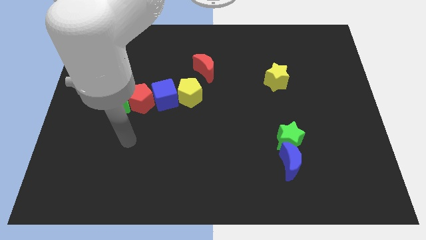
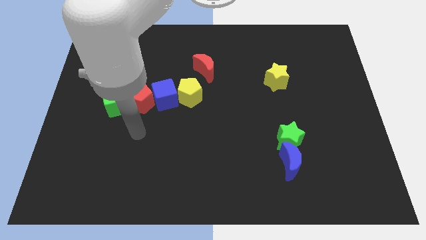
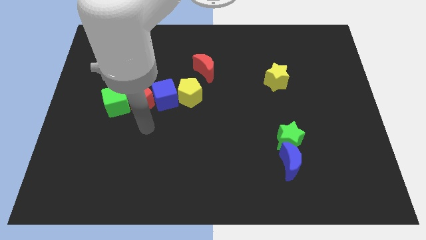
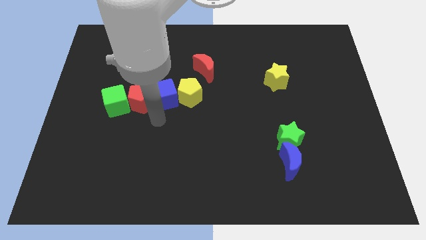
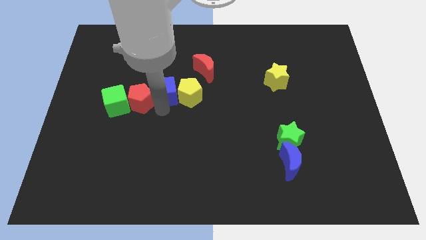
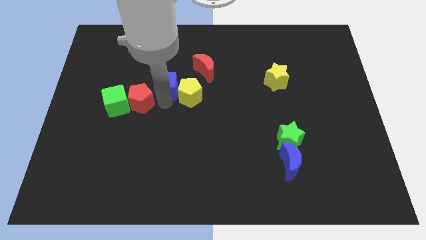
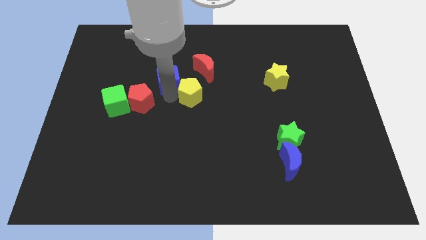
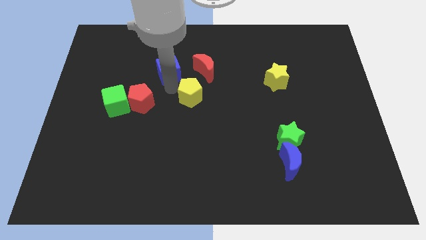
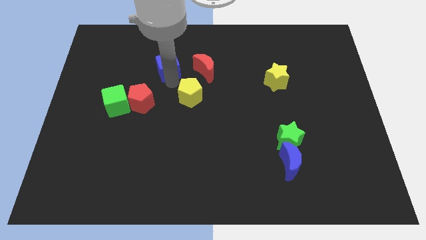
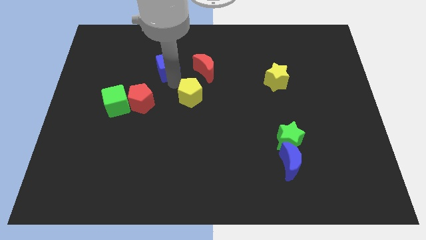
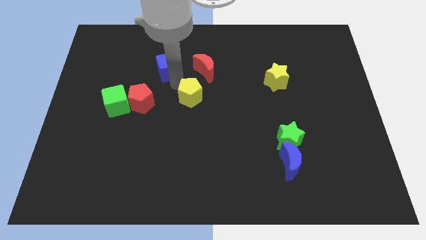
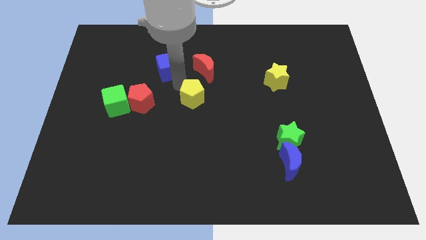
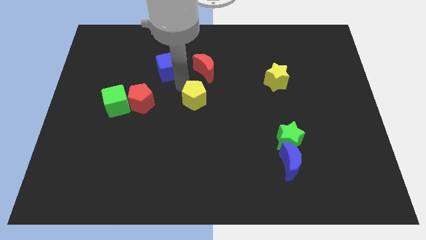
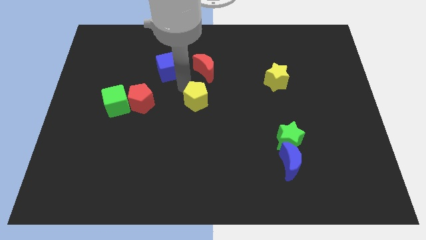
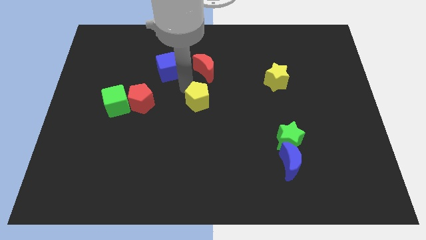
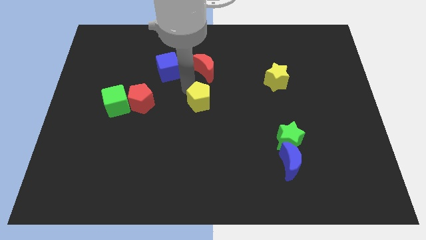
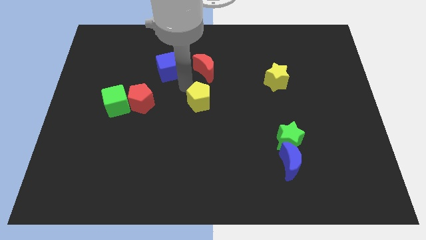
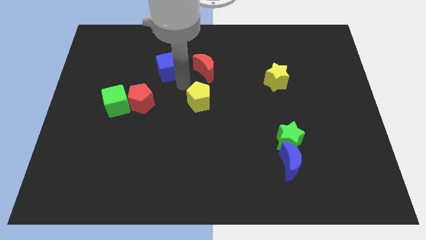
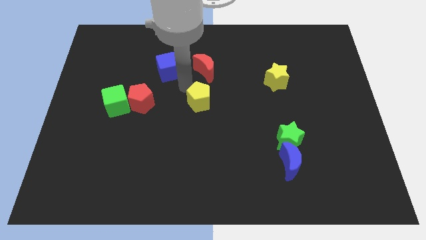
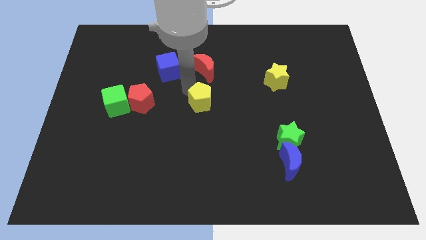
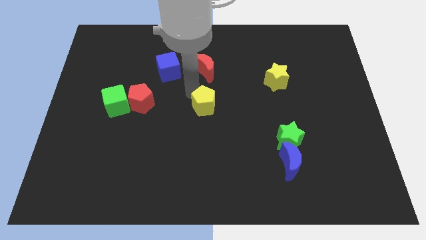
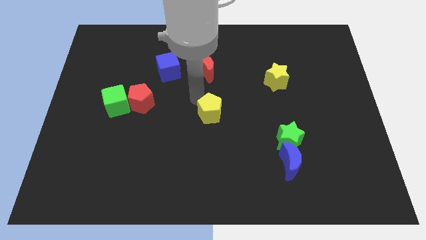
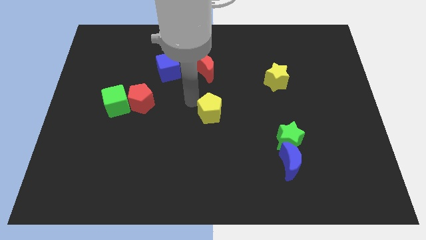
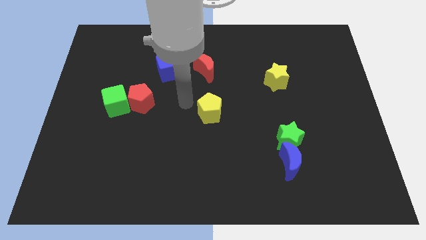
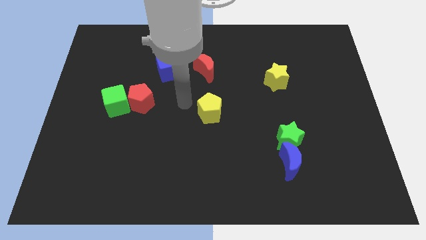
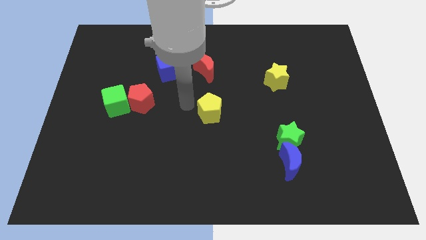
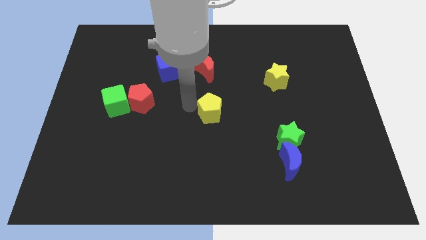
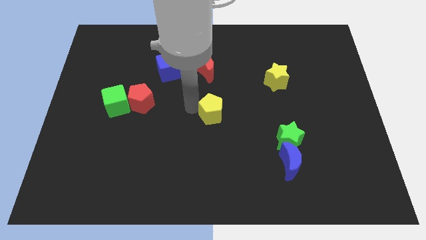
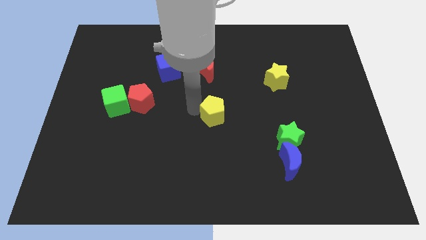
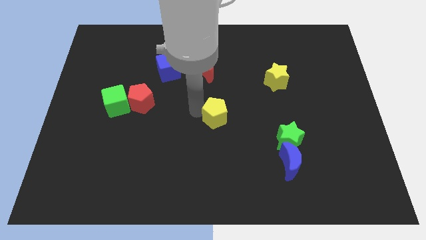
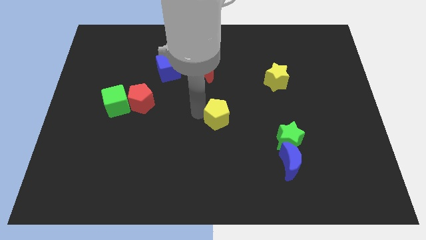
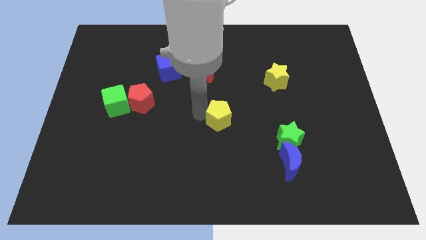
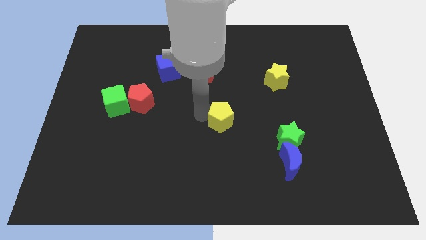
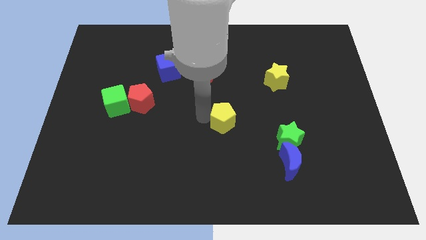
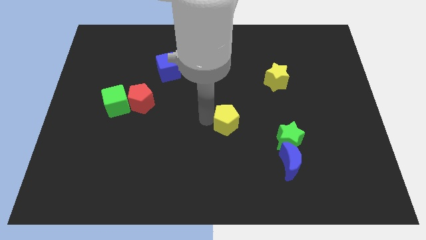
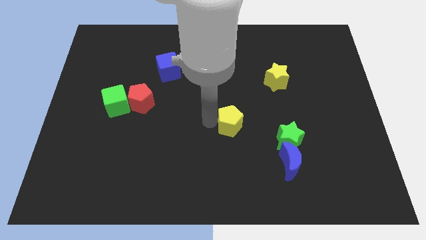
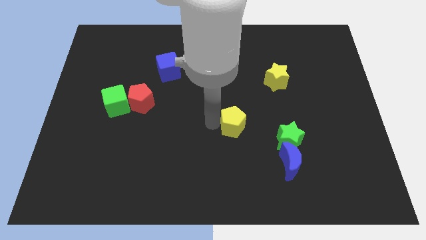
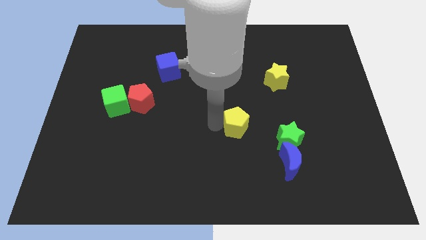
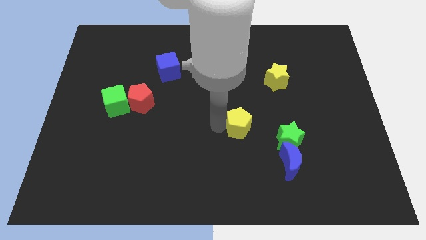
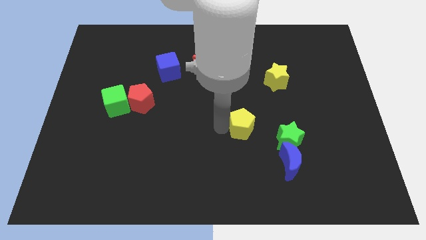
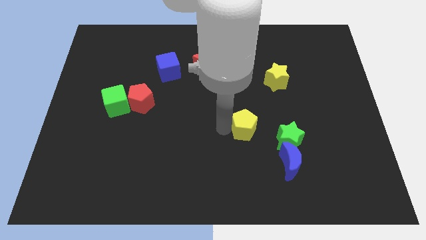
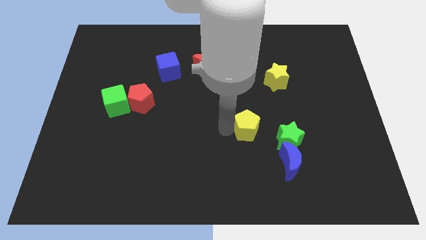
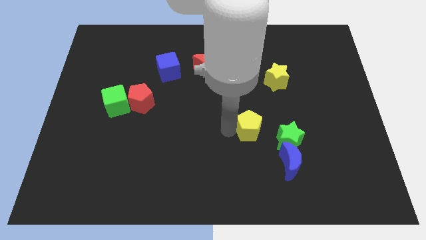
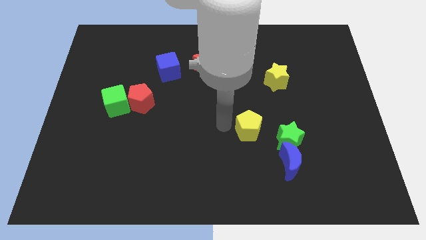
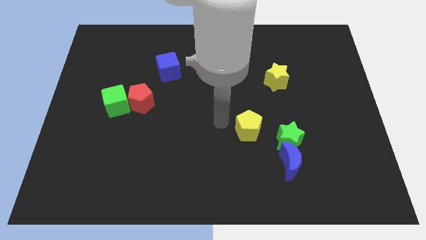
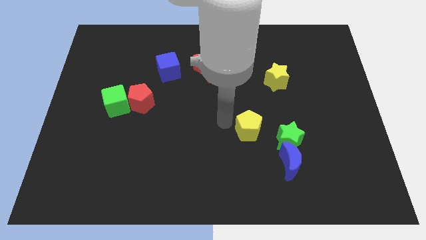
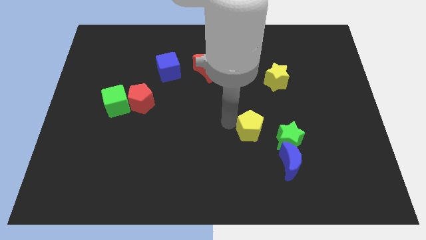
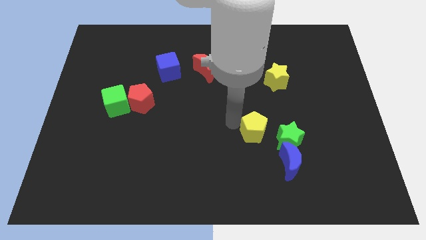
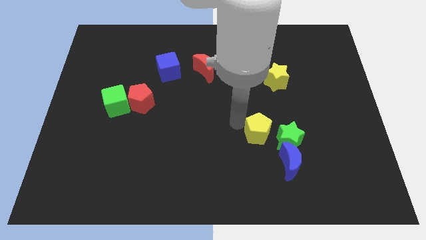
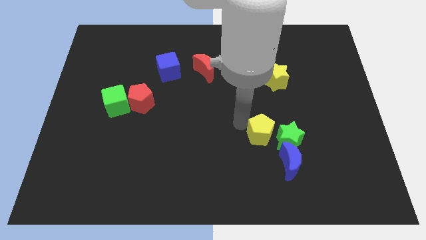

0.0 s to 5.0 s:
move the yellow pentagon to the green star

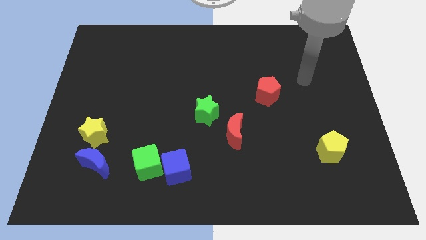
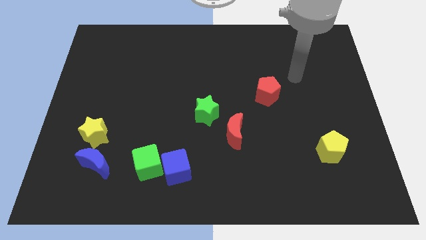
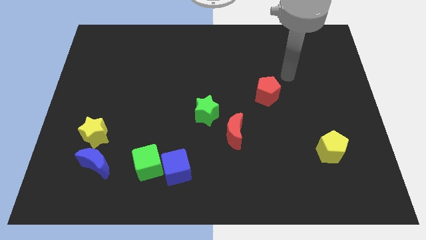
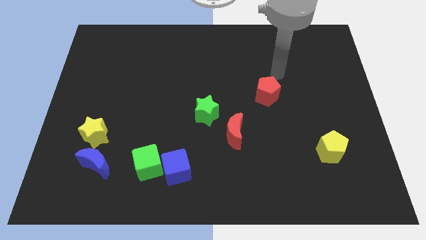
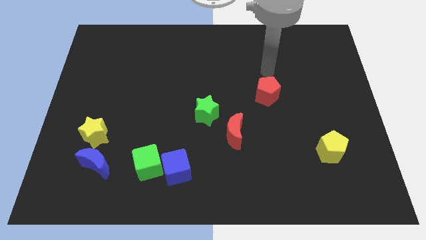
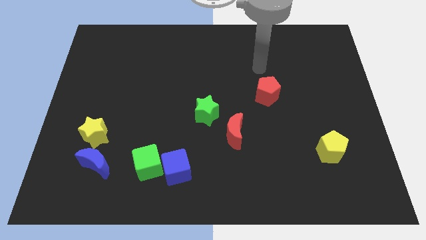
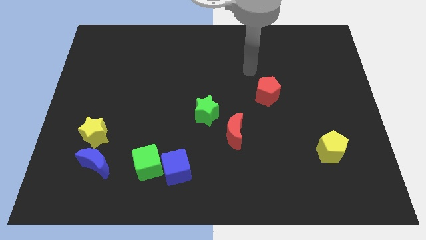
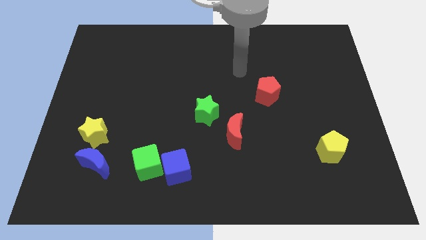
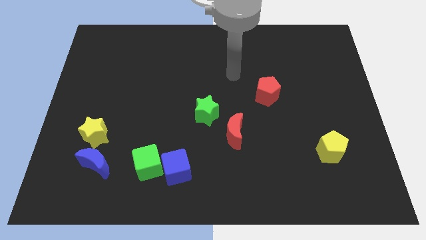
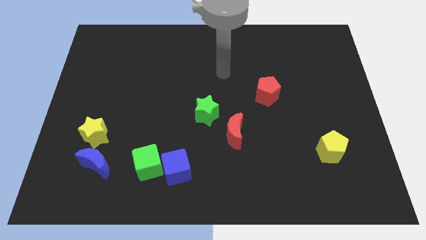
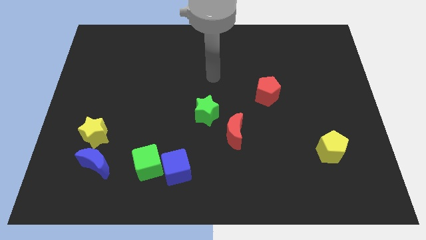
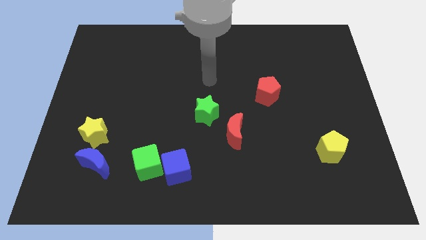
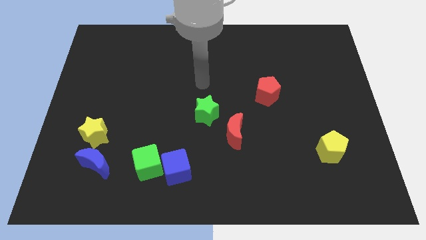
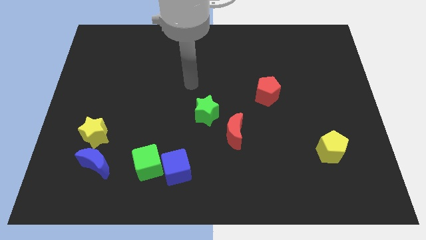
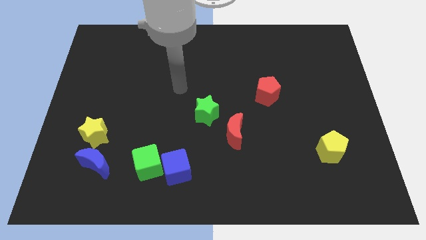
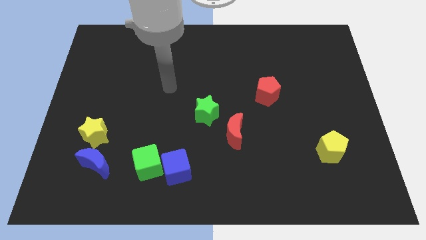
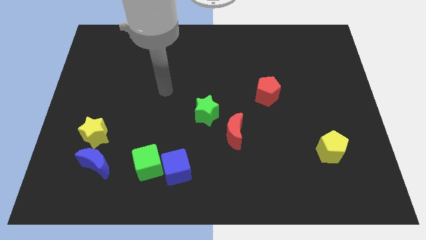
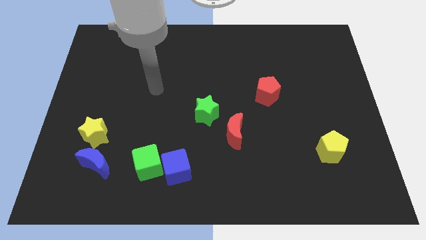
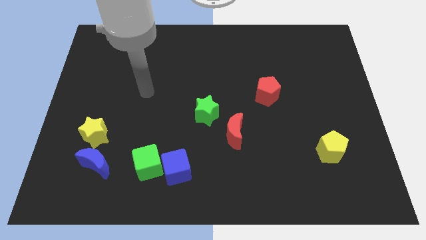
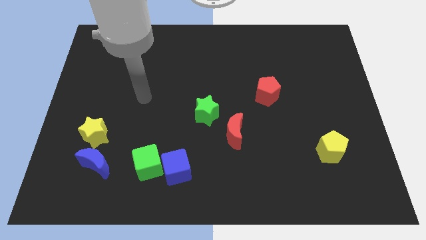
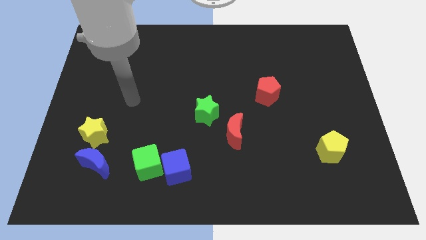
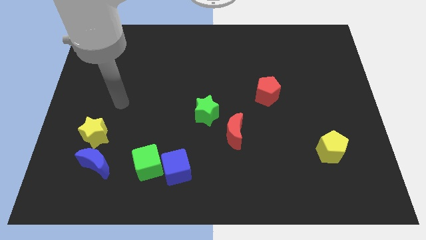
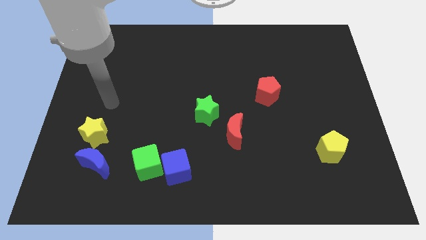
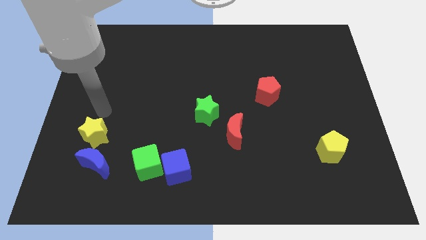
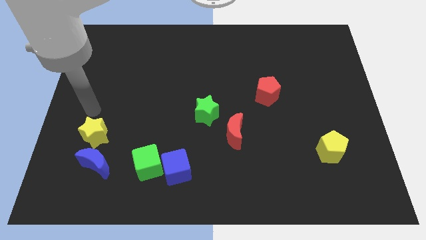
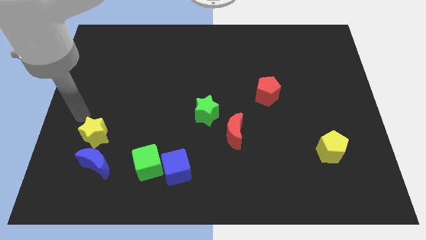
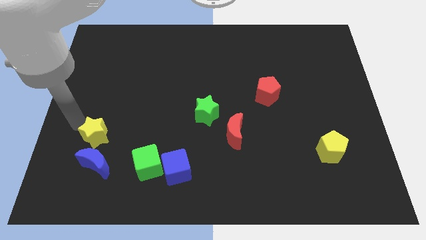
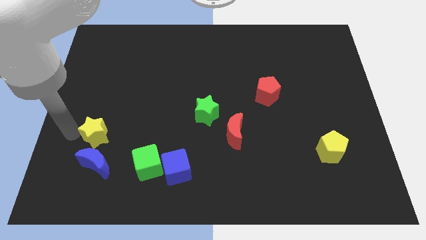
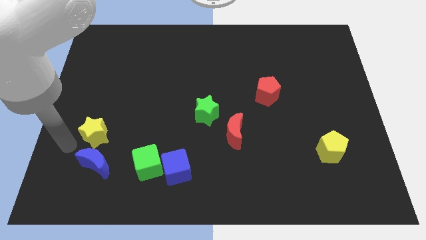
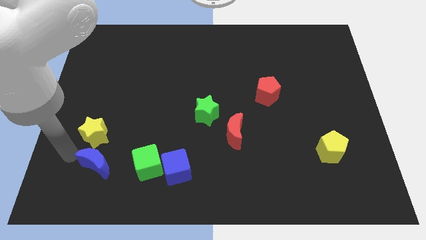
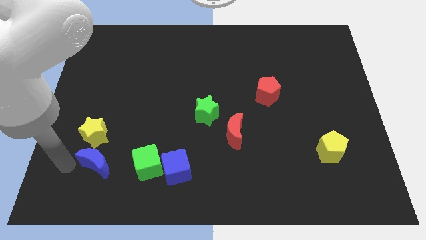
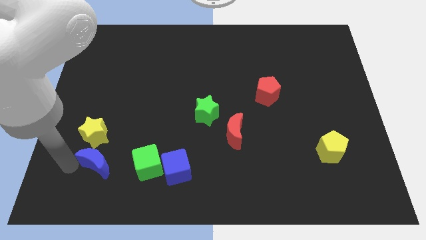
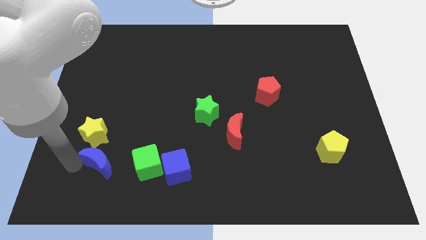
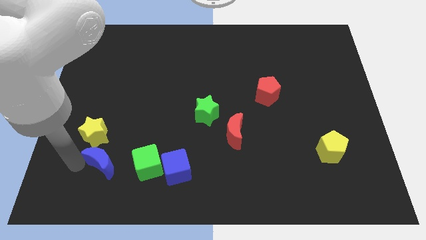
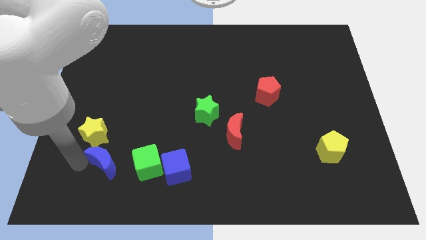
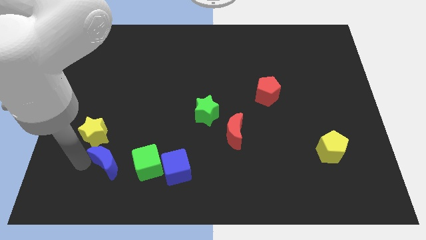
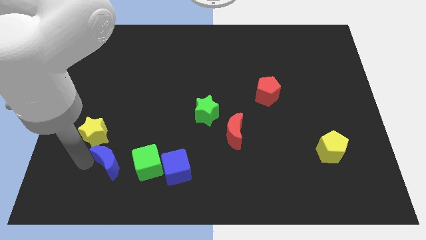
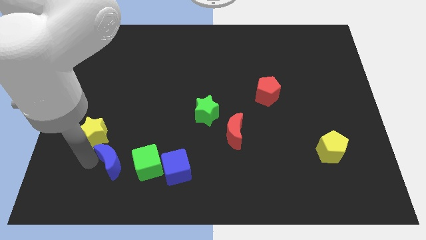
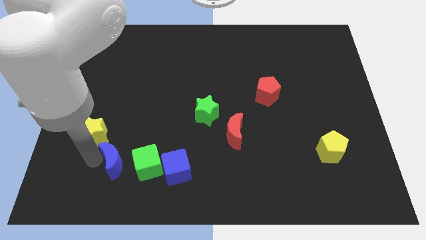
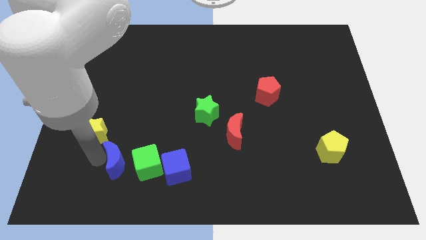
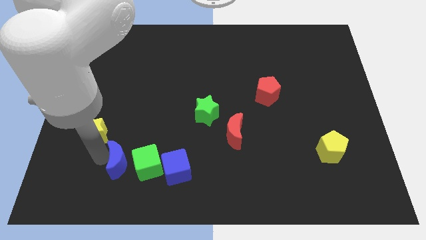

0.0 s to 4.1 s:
push the blue moon close to the green cube
